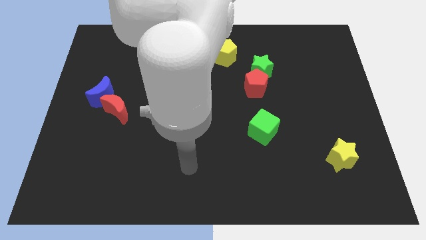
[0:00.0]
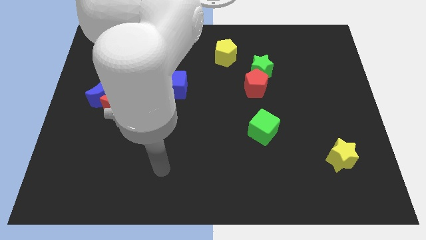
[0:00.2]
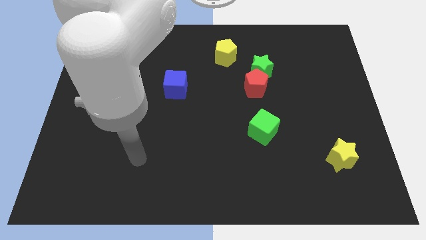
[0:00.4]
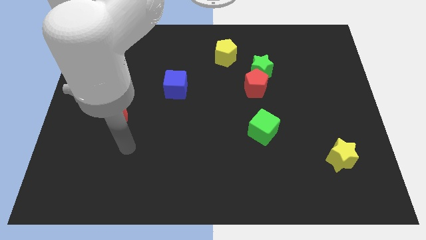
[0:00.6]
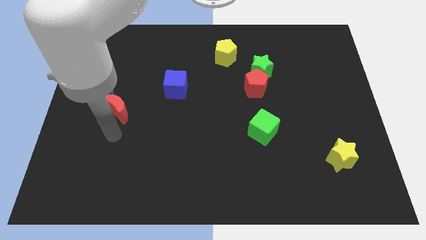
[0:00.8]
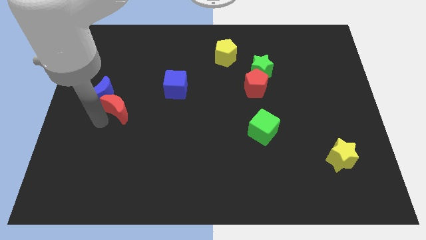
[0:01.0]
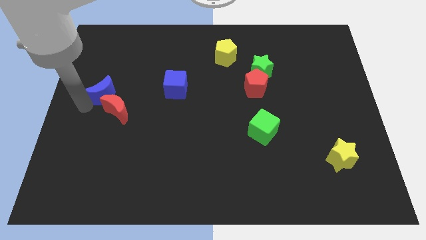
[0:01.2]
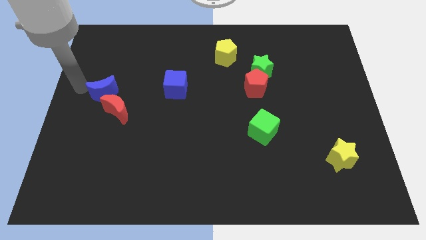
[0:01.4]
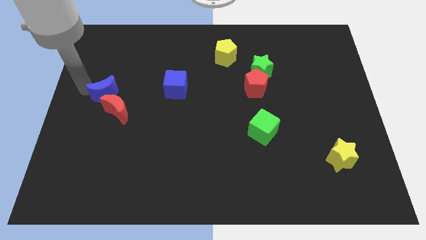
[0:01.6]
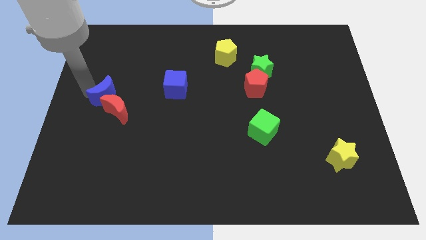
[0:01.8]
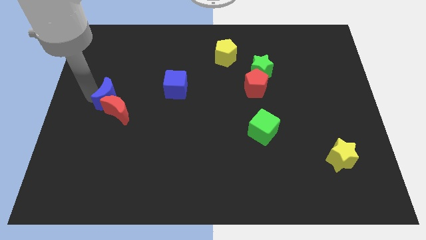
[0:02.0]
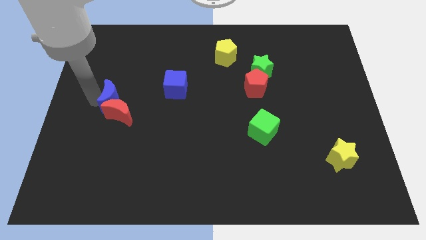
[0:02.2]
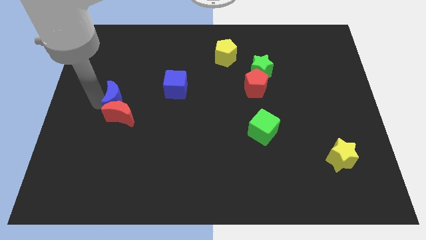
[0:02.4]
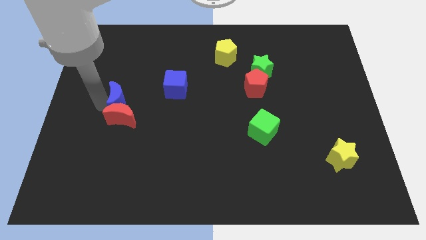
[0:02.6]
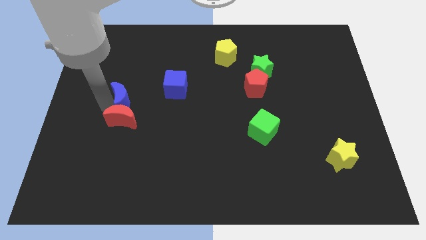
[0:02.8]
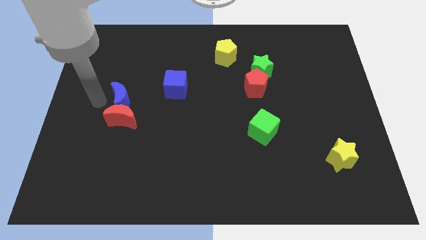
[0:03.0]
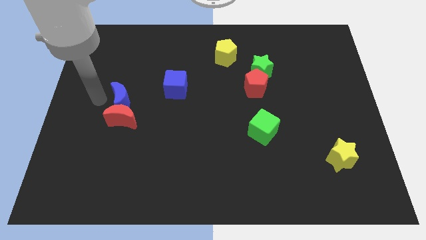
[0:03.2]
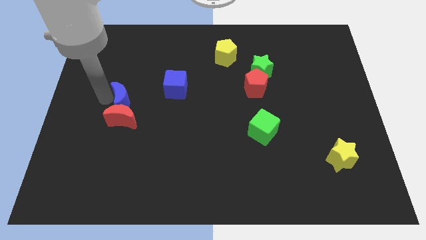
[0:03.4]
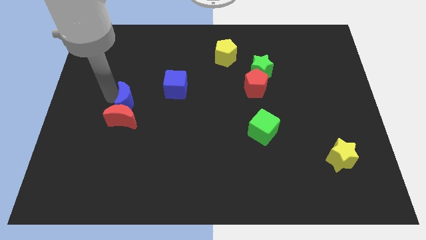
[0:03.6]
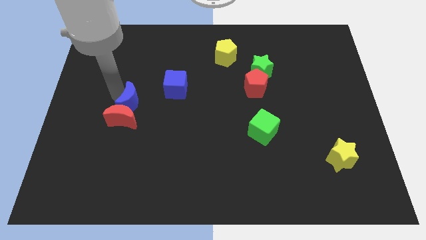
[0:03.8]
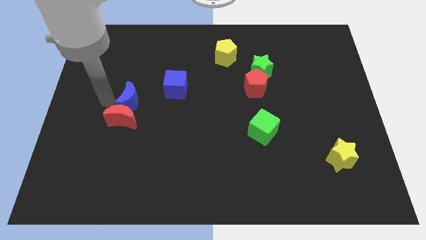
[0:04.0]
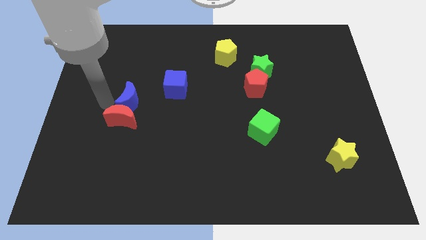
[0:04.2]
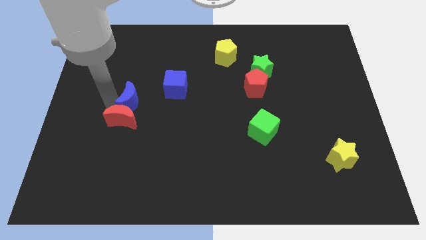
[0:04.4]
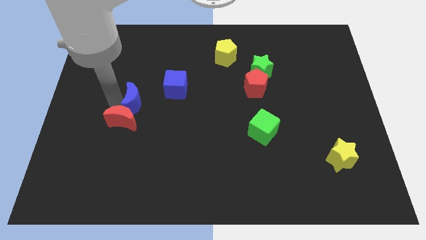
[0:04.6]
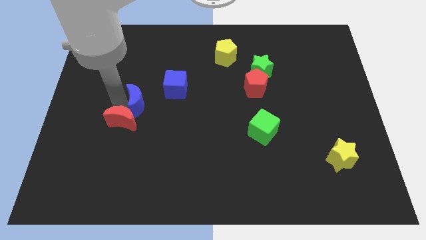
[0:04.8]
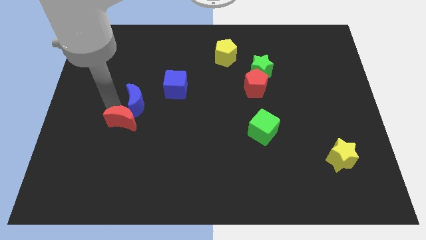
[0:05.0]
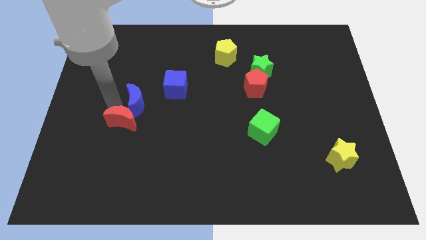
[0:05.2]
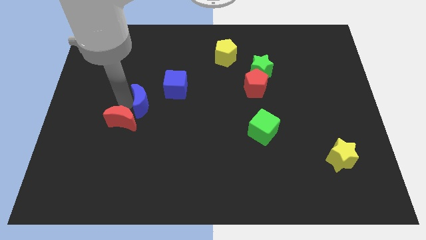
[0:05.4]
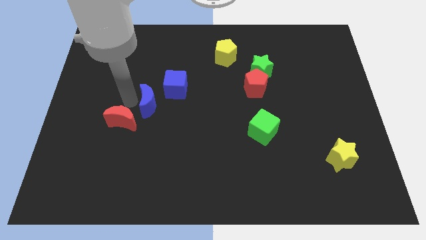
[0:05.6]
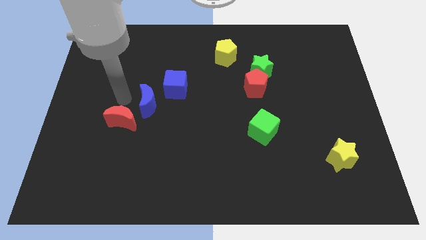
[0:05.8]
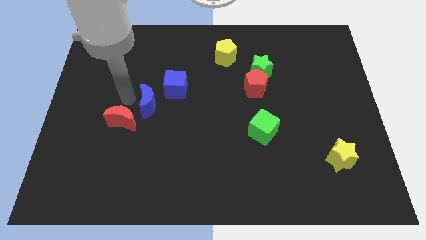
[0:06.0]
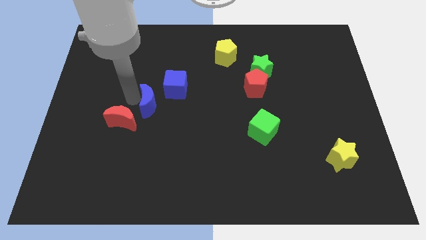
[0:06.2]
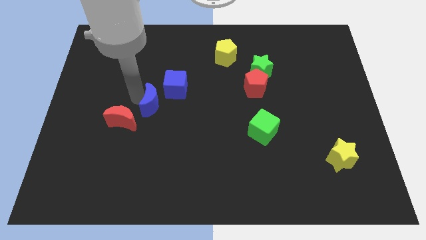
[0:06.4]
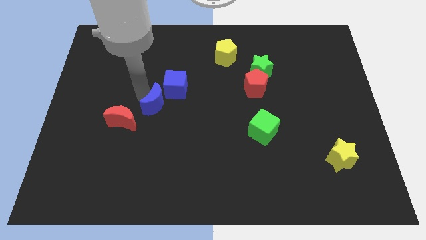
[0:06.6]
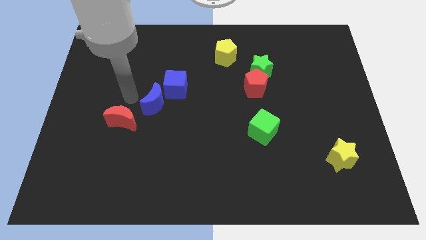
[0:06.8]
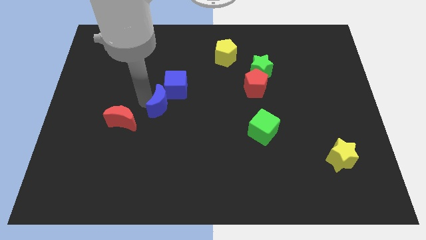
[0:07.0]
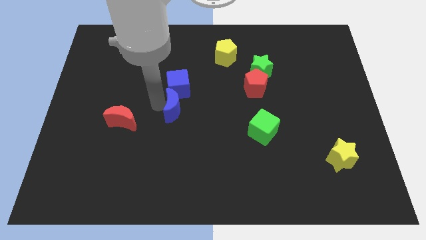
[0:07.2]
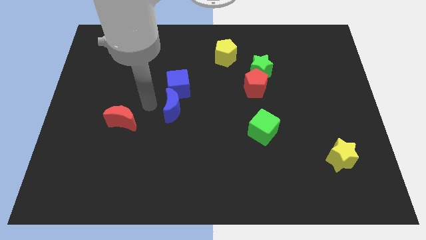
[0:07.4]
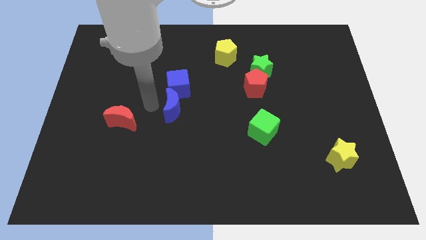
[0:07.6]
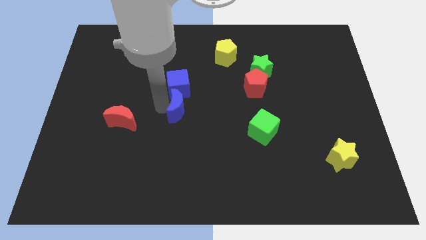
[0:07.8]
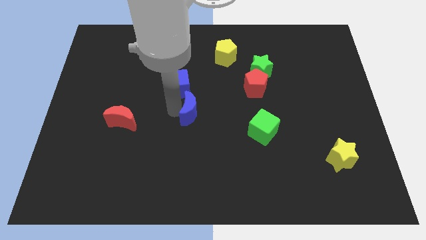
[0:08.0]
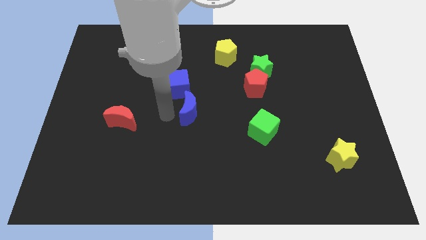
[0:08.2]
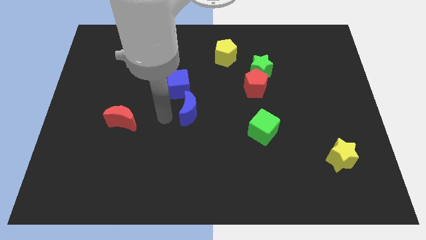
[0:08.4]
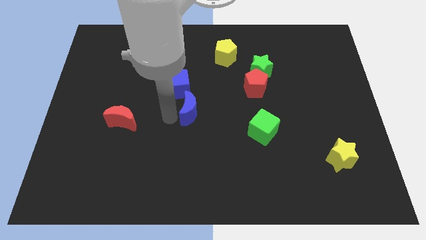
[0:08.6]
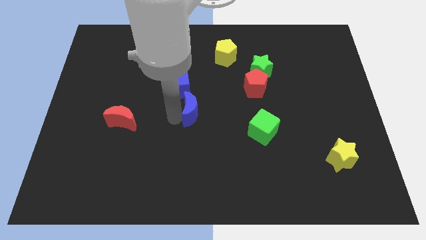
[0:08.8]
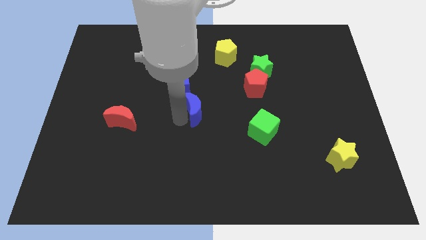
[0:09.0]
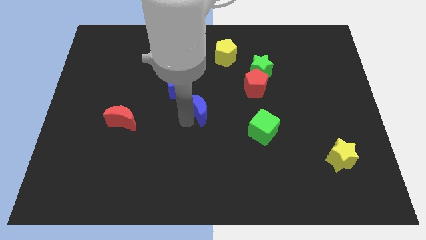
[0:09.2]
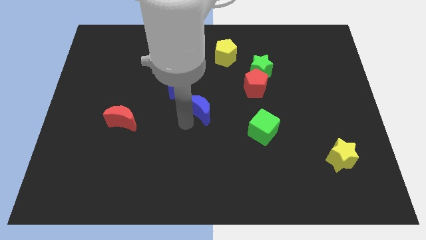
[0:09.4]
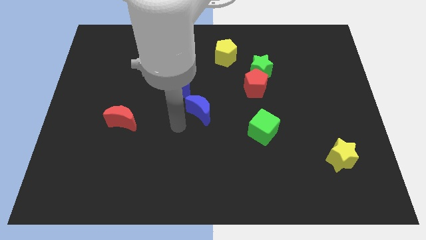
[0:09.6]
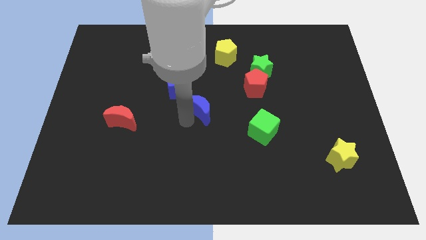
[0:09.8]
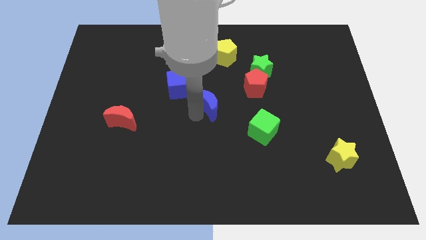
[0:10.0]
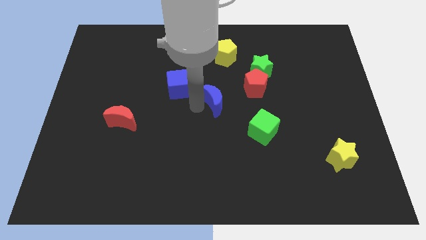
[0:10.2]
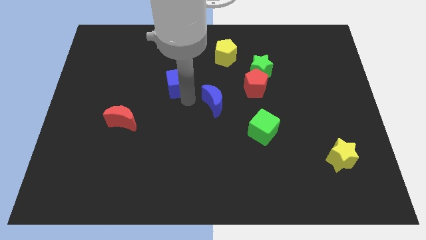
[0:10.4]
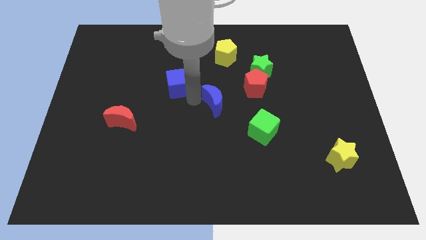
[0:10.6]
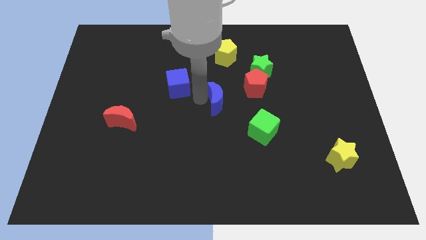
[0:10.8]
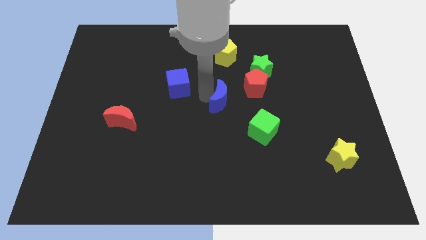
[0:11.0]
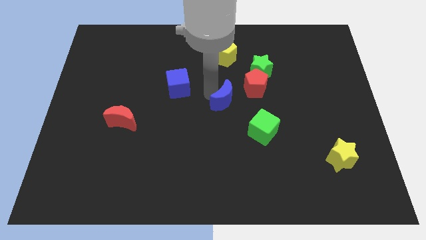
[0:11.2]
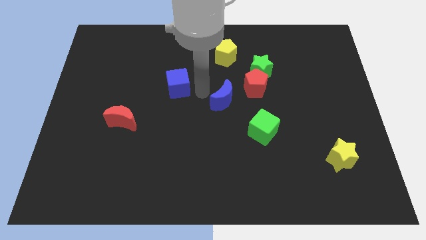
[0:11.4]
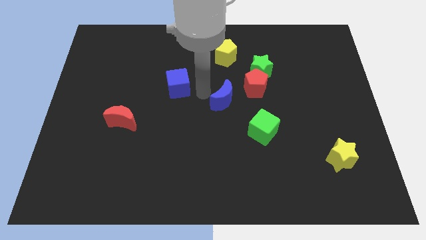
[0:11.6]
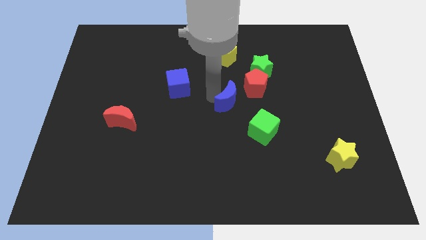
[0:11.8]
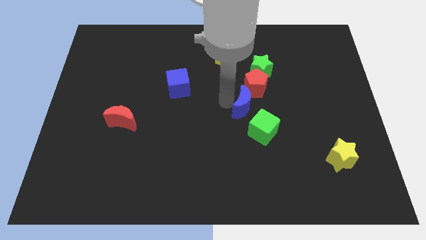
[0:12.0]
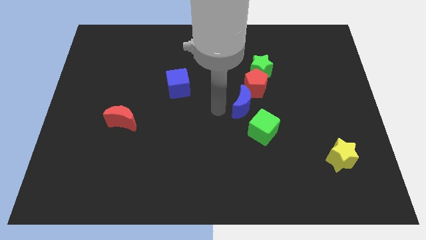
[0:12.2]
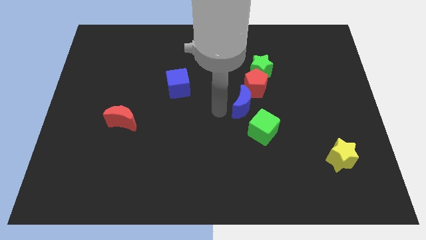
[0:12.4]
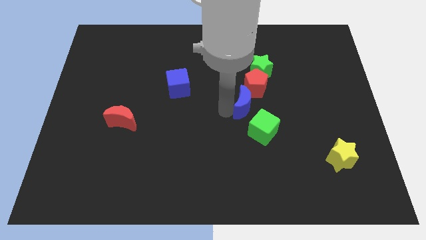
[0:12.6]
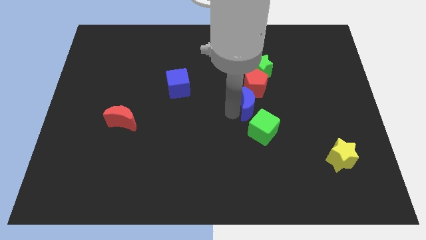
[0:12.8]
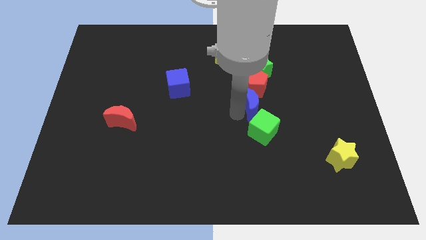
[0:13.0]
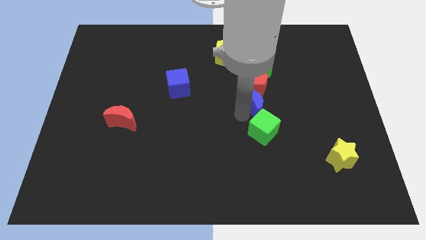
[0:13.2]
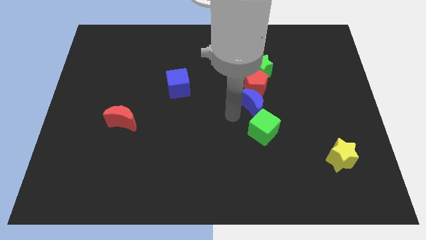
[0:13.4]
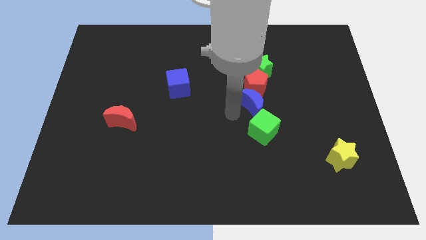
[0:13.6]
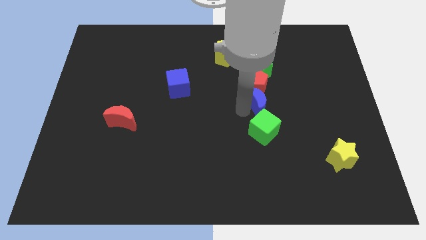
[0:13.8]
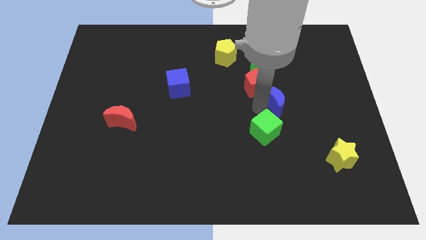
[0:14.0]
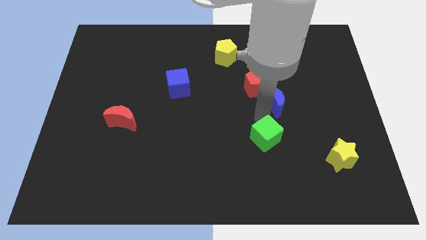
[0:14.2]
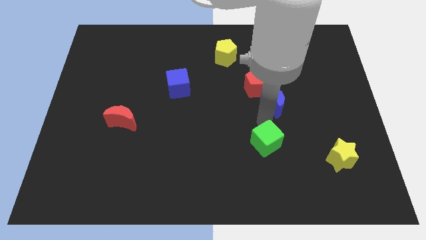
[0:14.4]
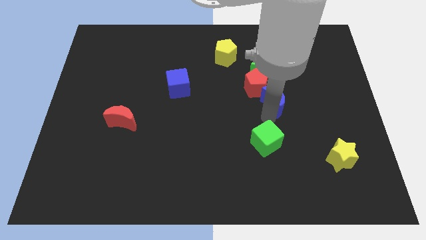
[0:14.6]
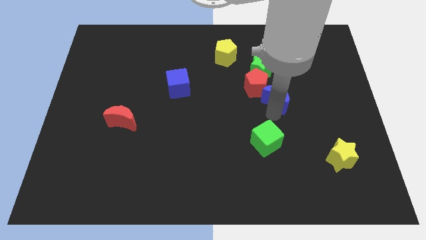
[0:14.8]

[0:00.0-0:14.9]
put the blue moon to the bottom right side of the green star
